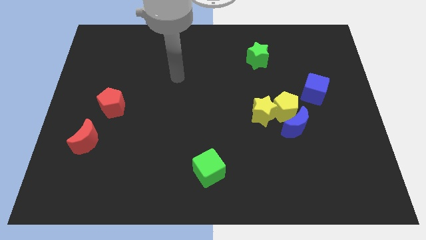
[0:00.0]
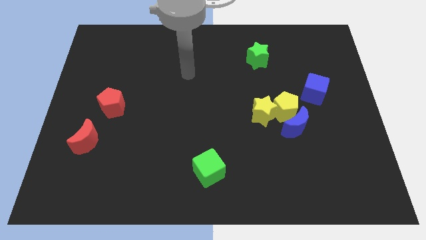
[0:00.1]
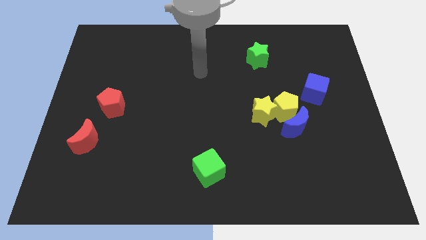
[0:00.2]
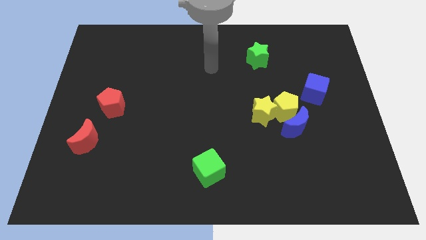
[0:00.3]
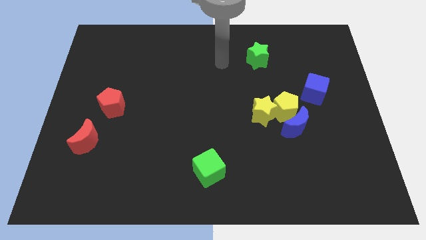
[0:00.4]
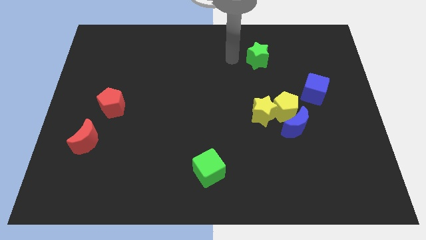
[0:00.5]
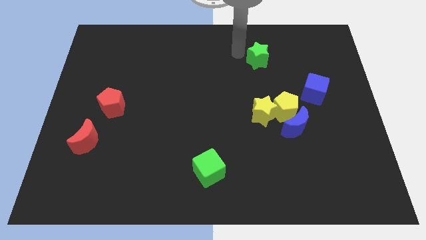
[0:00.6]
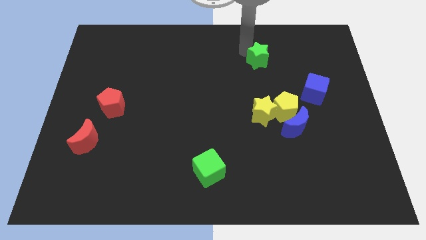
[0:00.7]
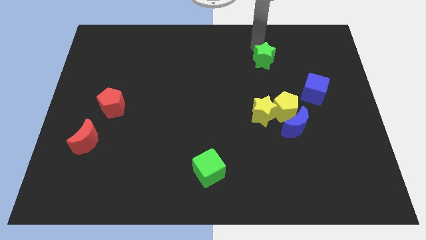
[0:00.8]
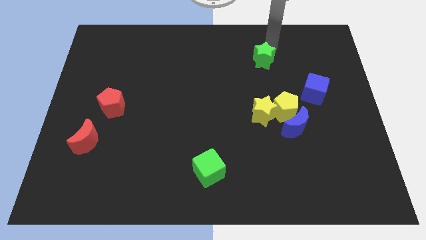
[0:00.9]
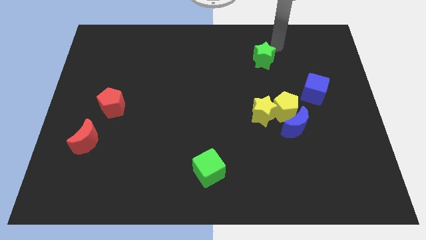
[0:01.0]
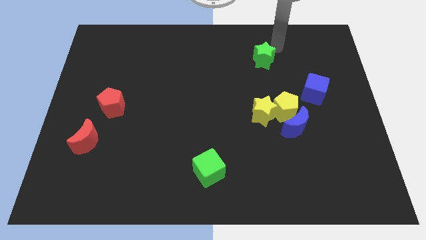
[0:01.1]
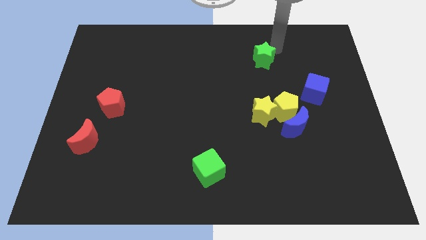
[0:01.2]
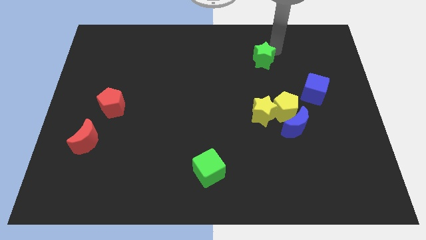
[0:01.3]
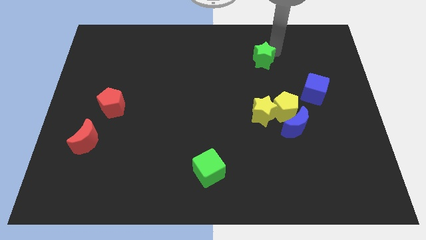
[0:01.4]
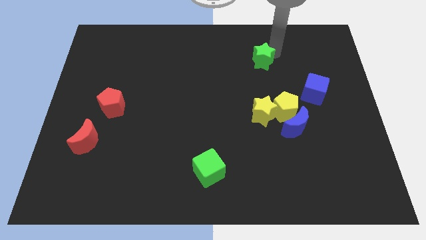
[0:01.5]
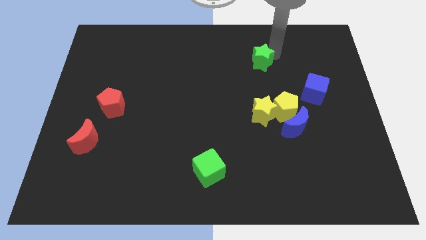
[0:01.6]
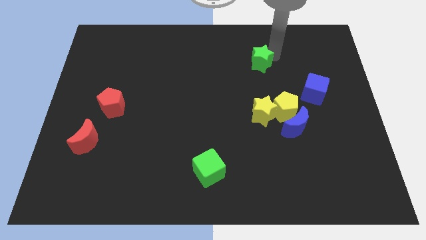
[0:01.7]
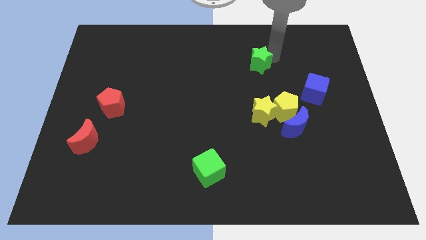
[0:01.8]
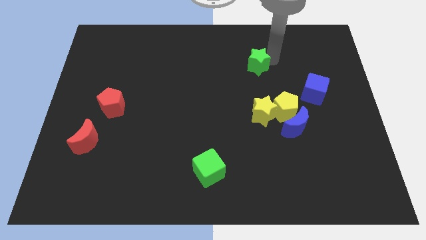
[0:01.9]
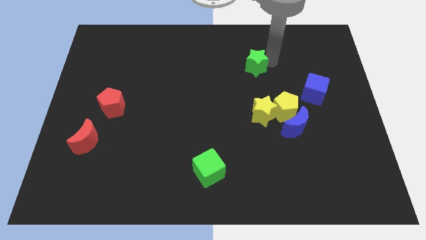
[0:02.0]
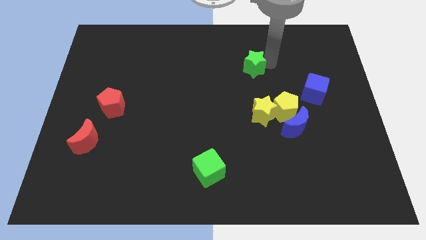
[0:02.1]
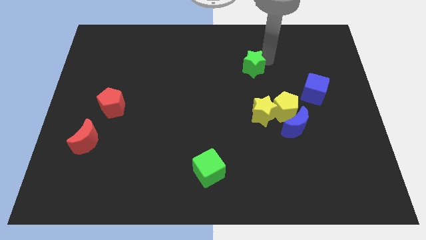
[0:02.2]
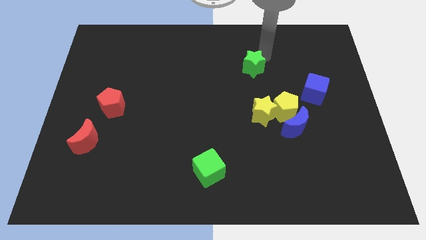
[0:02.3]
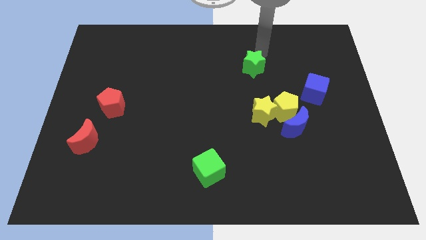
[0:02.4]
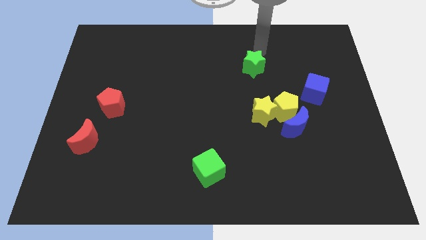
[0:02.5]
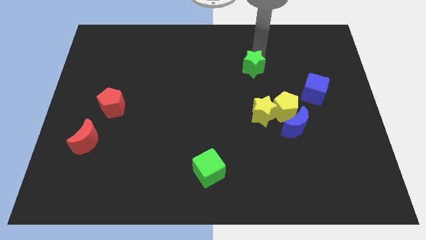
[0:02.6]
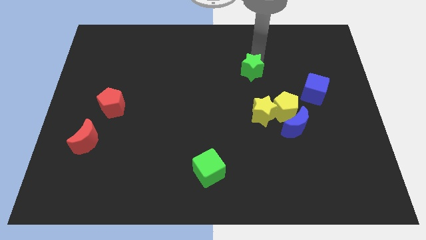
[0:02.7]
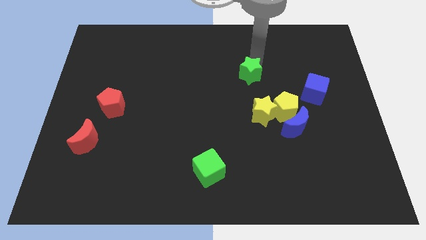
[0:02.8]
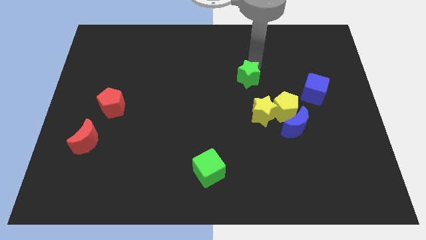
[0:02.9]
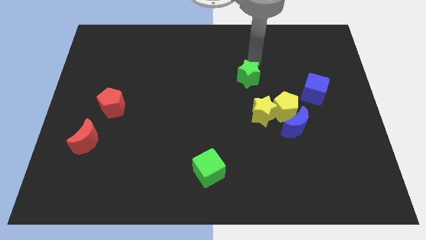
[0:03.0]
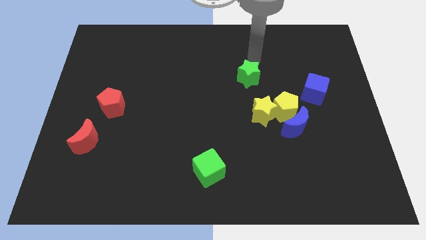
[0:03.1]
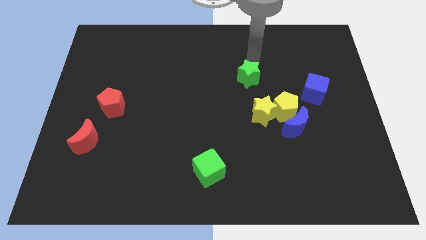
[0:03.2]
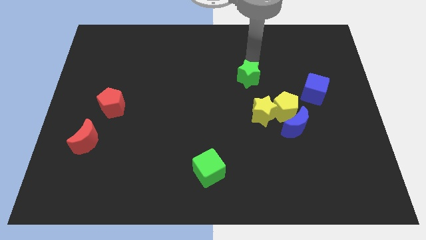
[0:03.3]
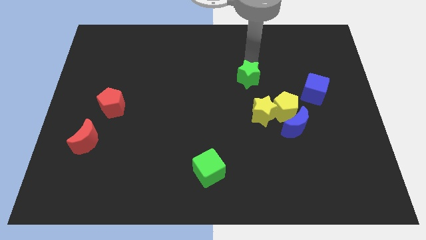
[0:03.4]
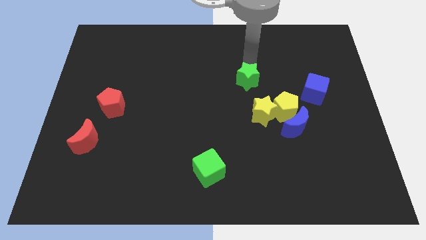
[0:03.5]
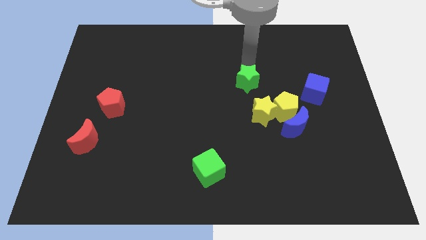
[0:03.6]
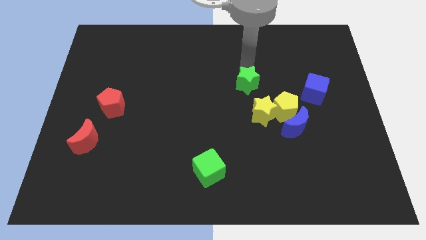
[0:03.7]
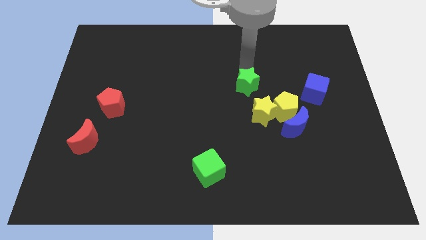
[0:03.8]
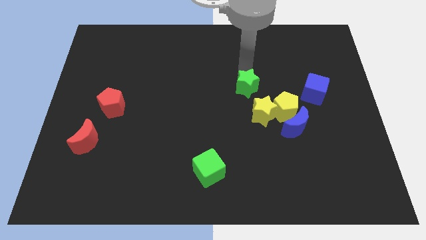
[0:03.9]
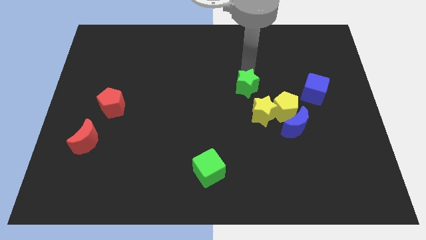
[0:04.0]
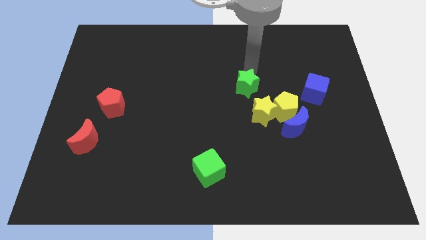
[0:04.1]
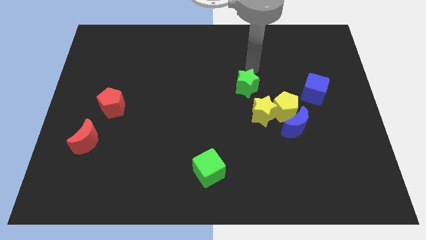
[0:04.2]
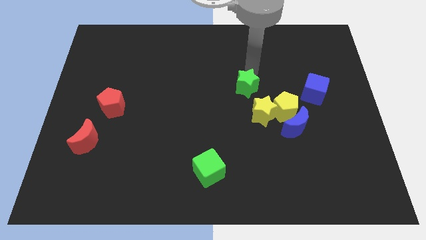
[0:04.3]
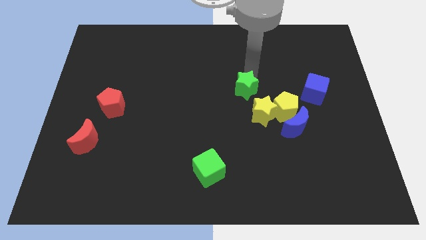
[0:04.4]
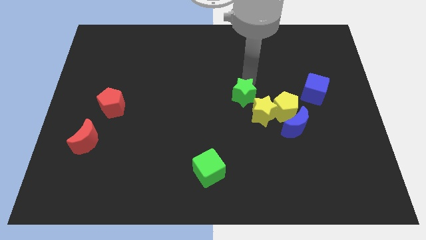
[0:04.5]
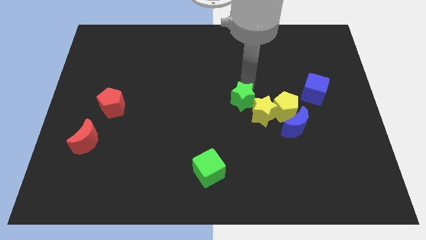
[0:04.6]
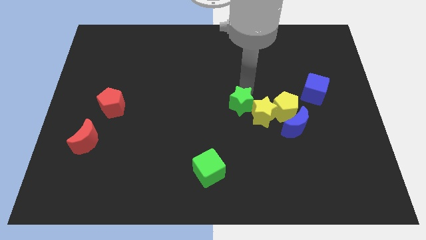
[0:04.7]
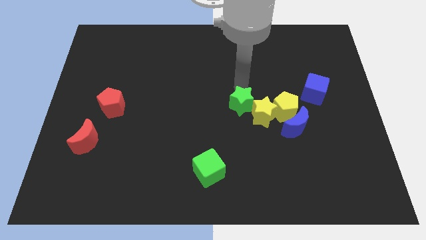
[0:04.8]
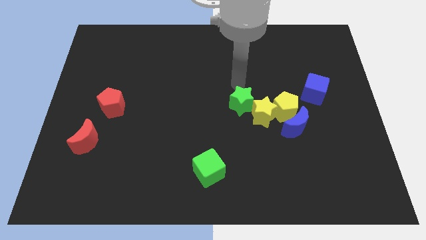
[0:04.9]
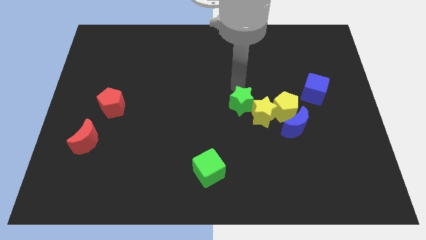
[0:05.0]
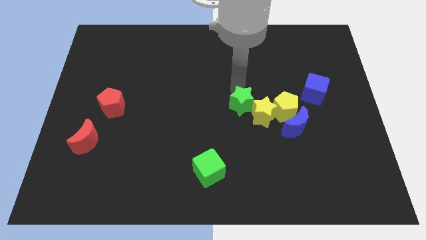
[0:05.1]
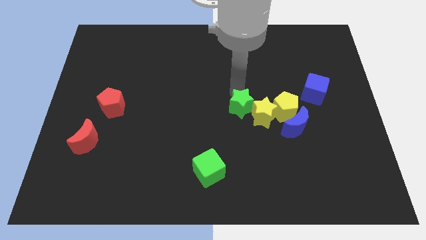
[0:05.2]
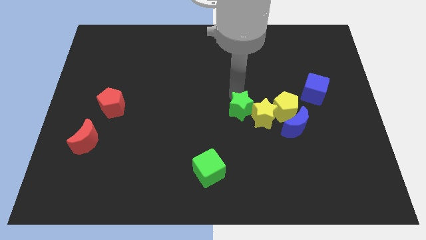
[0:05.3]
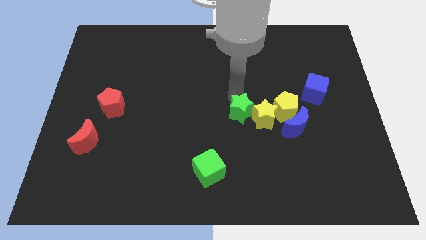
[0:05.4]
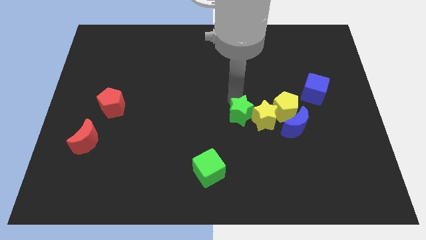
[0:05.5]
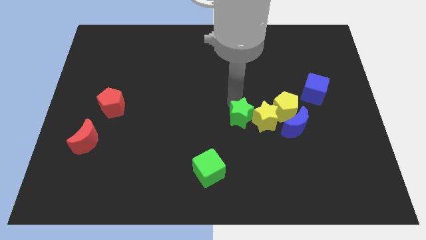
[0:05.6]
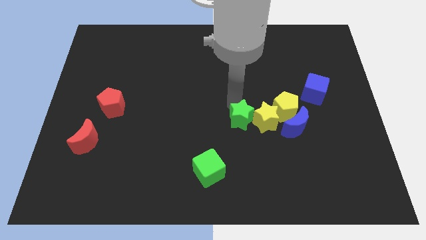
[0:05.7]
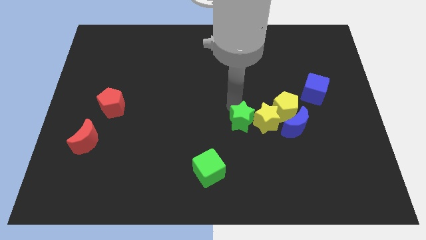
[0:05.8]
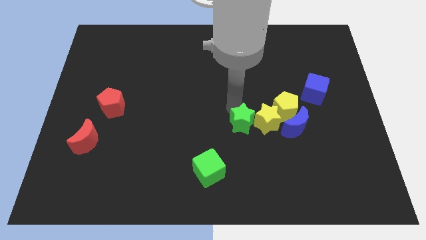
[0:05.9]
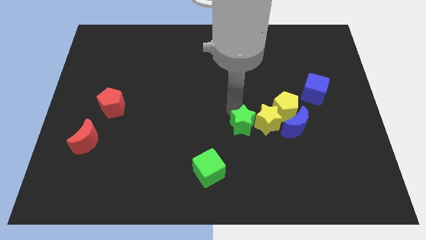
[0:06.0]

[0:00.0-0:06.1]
move the green star down

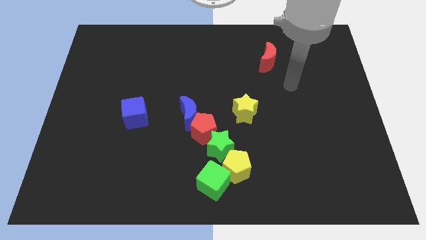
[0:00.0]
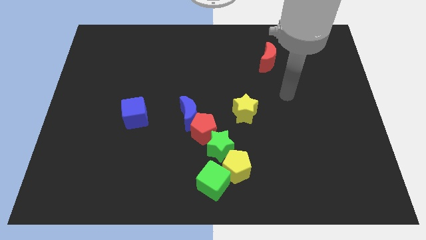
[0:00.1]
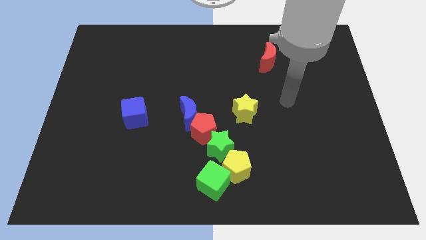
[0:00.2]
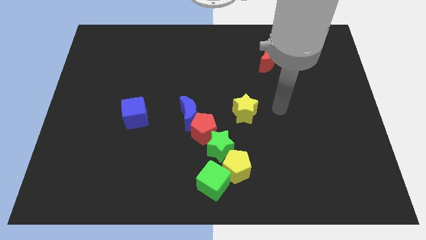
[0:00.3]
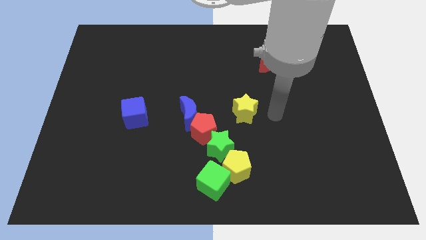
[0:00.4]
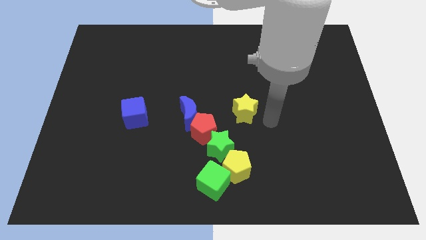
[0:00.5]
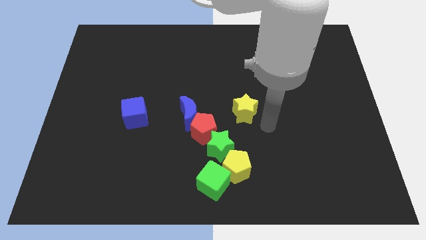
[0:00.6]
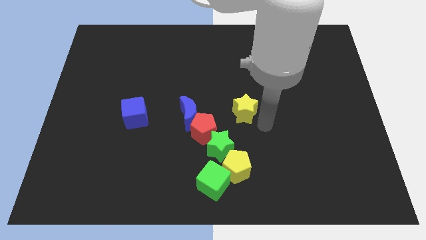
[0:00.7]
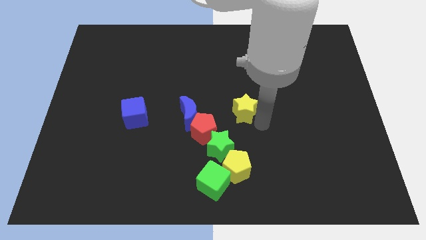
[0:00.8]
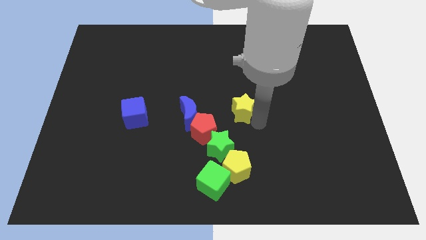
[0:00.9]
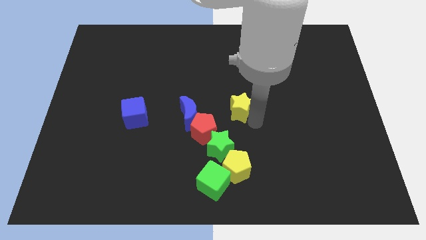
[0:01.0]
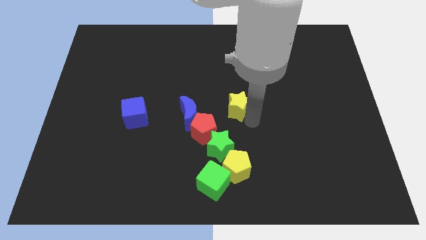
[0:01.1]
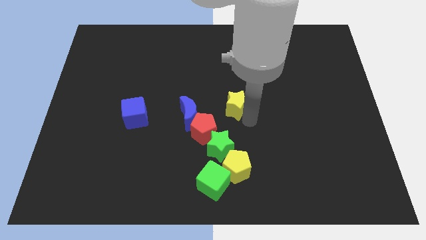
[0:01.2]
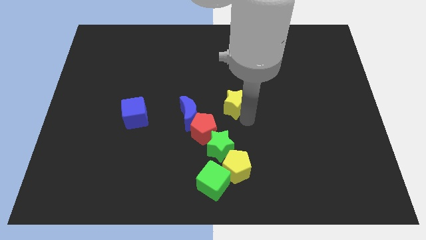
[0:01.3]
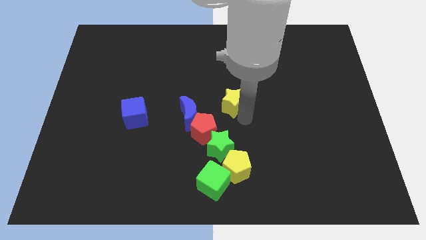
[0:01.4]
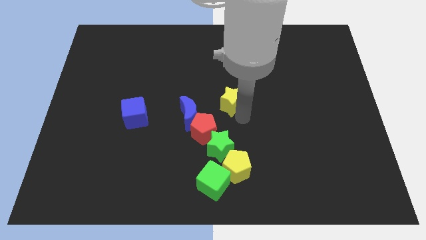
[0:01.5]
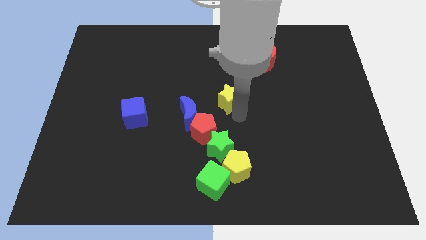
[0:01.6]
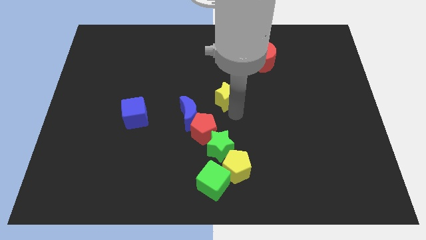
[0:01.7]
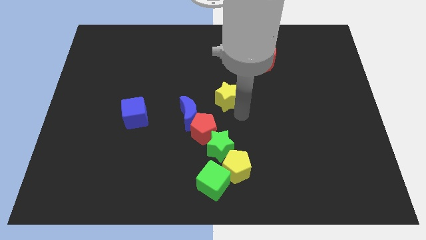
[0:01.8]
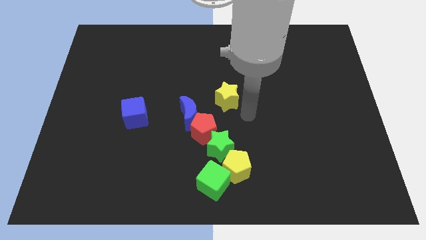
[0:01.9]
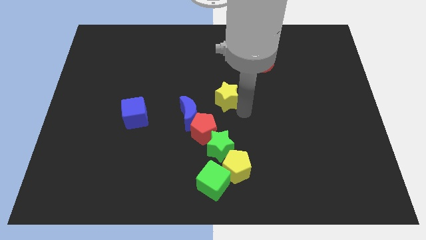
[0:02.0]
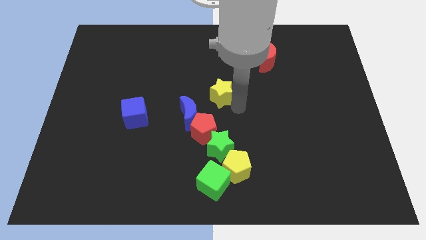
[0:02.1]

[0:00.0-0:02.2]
slide the yellow star up and left diagonally a little
